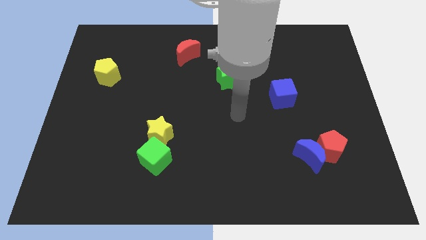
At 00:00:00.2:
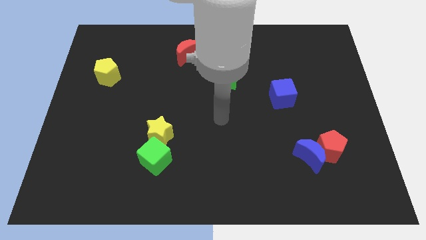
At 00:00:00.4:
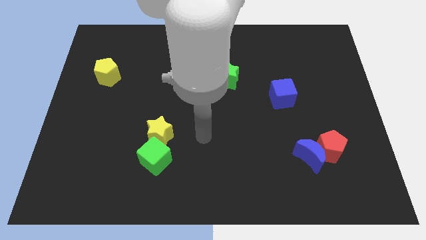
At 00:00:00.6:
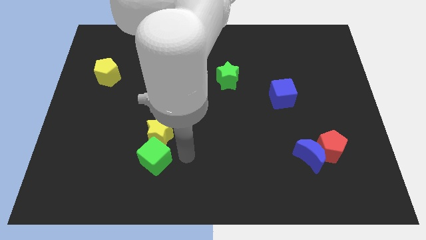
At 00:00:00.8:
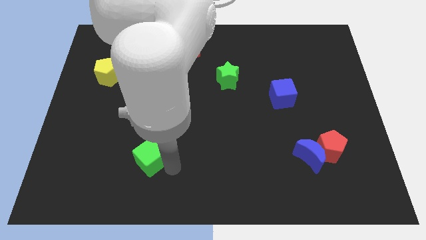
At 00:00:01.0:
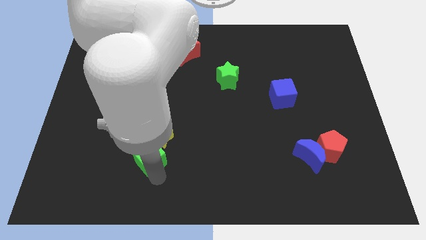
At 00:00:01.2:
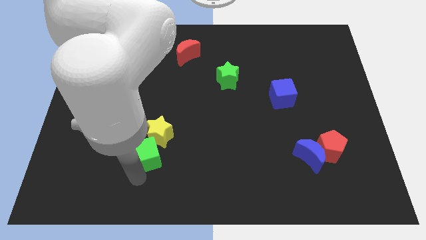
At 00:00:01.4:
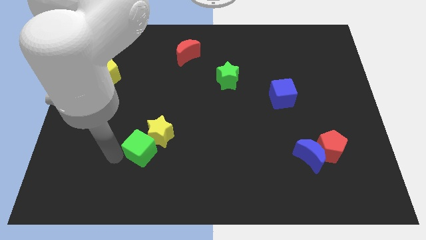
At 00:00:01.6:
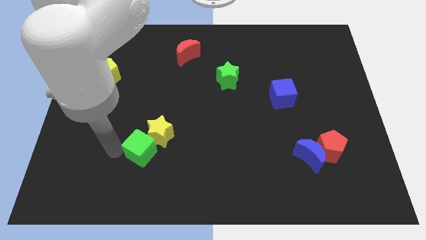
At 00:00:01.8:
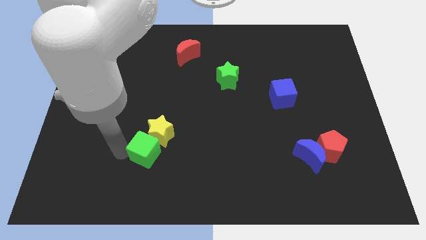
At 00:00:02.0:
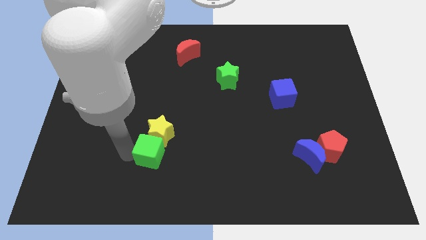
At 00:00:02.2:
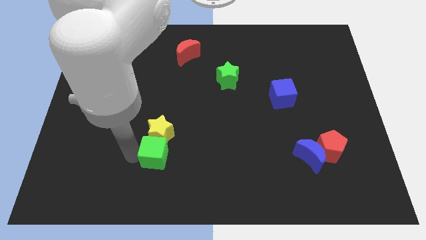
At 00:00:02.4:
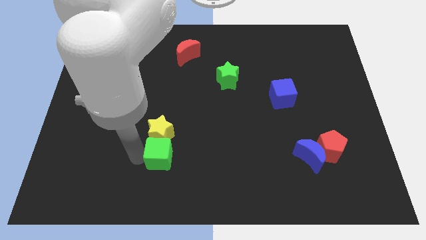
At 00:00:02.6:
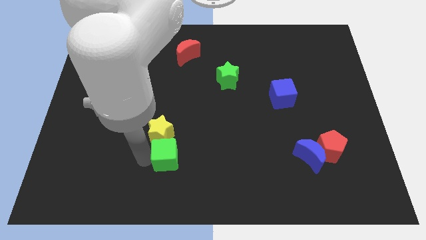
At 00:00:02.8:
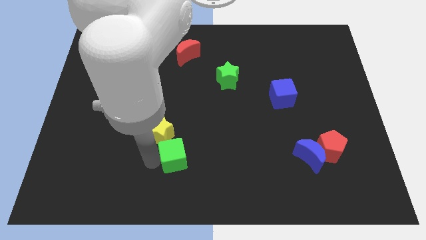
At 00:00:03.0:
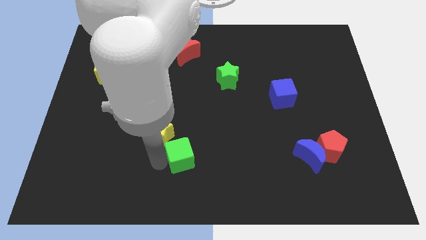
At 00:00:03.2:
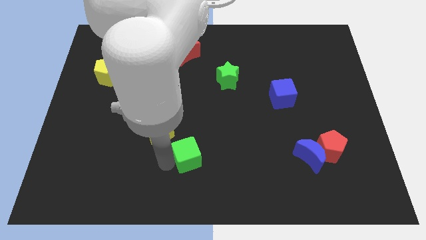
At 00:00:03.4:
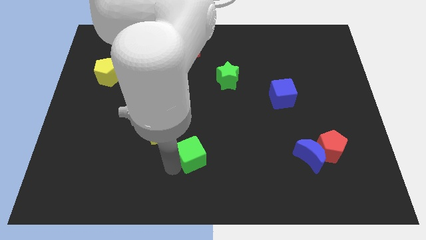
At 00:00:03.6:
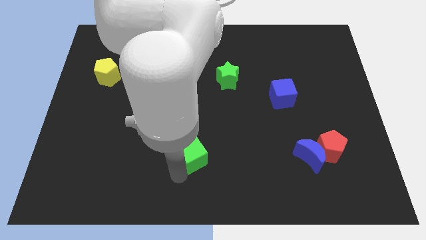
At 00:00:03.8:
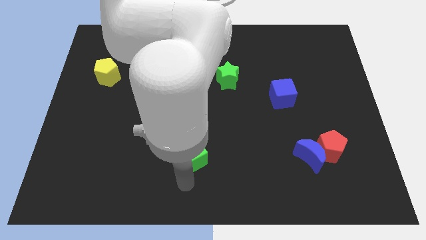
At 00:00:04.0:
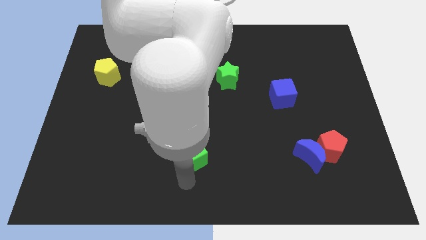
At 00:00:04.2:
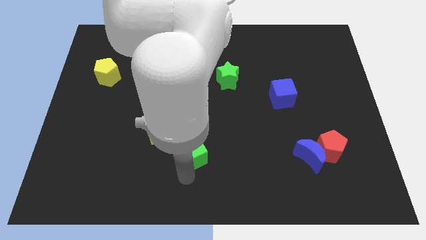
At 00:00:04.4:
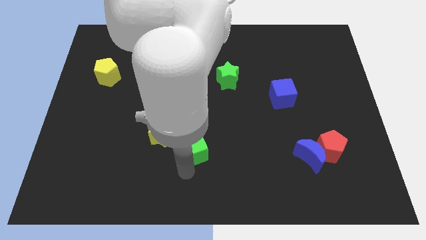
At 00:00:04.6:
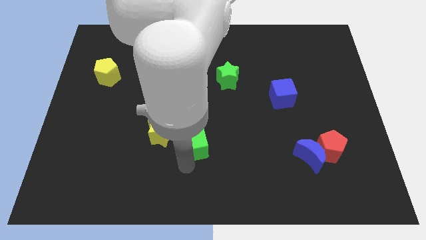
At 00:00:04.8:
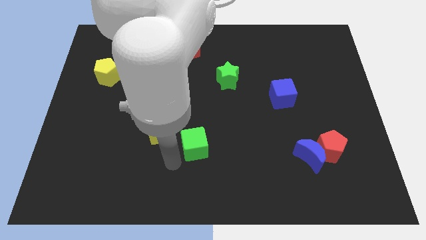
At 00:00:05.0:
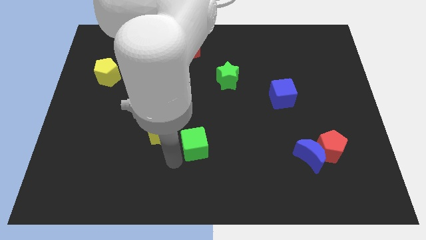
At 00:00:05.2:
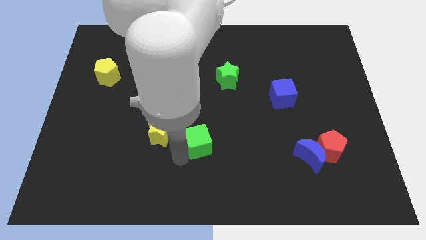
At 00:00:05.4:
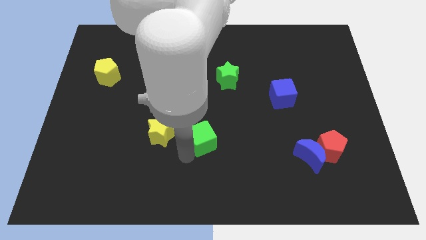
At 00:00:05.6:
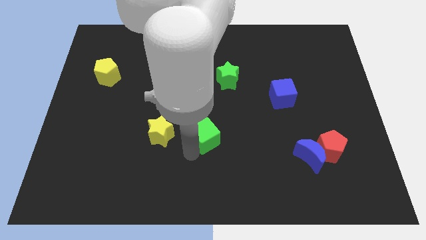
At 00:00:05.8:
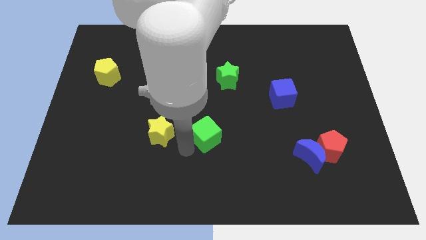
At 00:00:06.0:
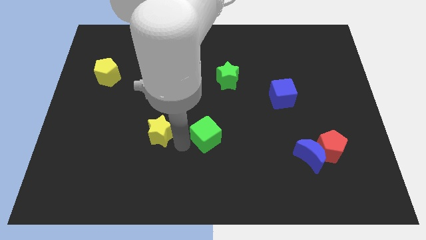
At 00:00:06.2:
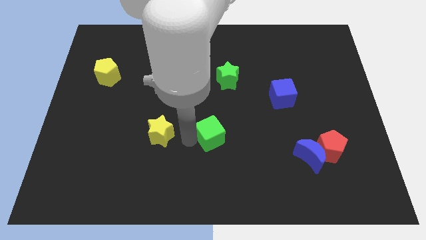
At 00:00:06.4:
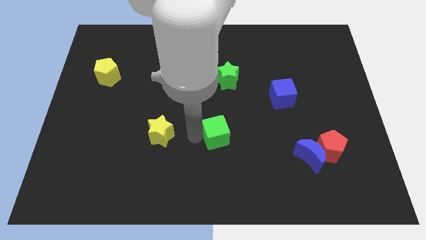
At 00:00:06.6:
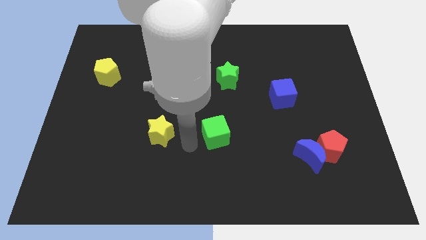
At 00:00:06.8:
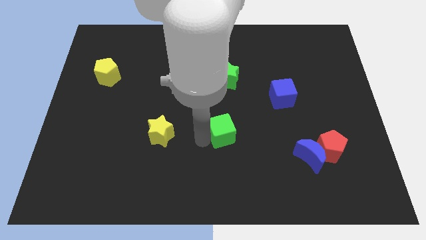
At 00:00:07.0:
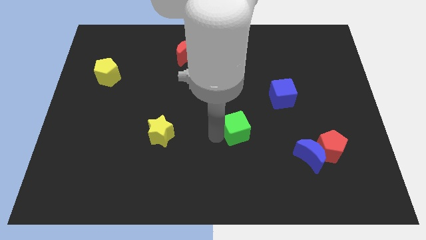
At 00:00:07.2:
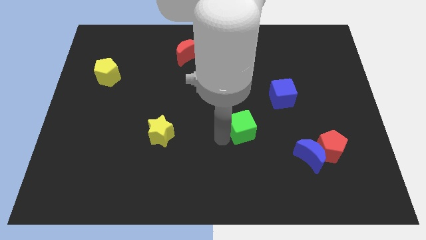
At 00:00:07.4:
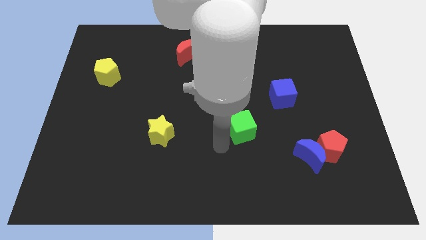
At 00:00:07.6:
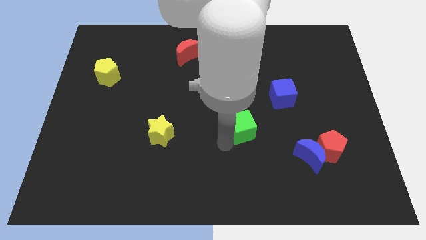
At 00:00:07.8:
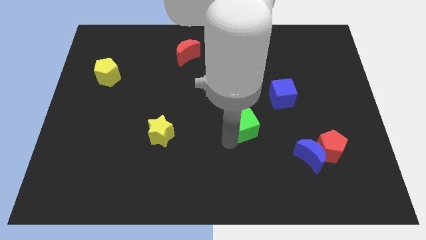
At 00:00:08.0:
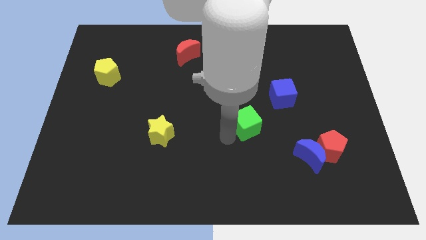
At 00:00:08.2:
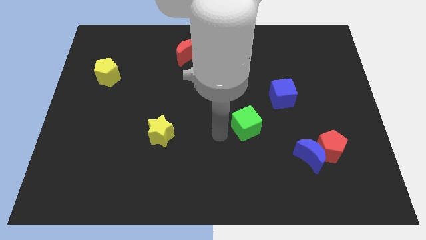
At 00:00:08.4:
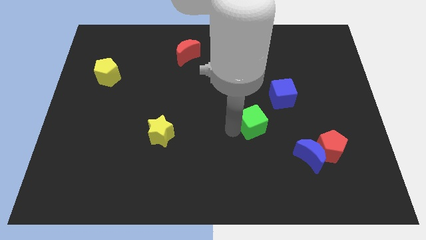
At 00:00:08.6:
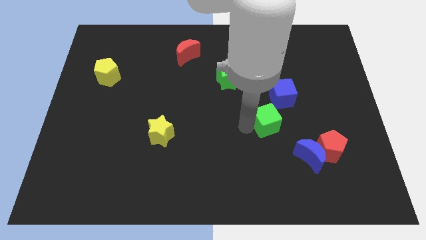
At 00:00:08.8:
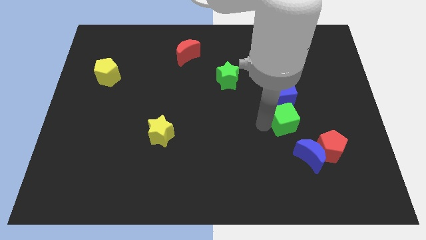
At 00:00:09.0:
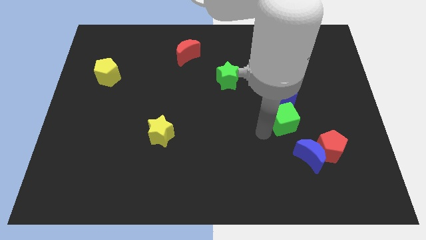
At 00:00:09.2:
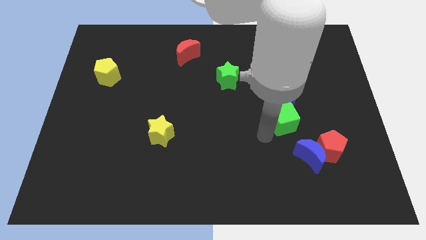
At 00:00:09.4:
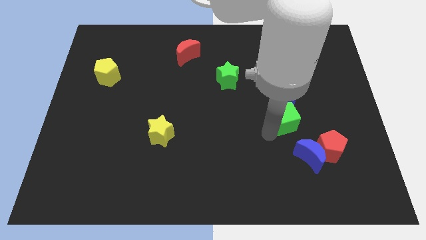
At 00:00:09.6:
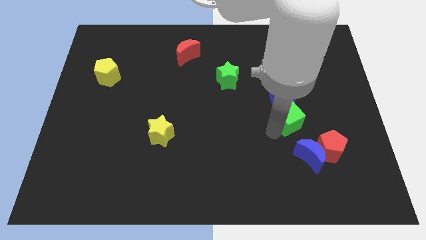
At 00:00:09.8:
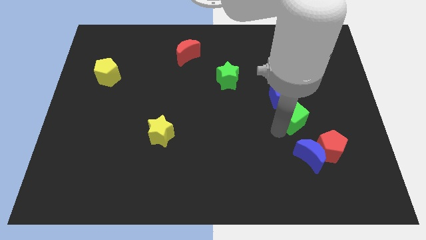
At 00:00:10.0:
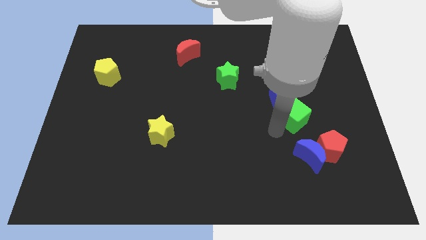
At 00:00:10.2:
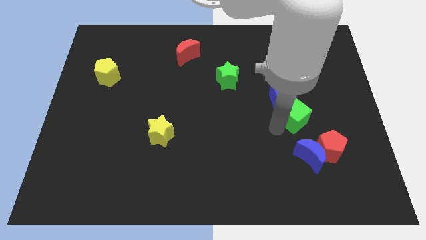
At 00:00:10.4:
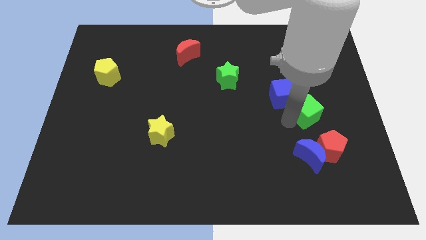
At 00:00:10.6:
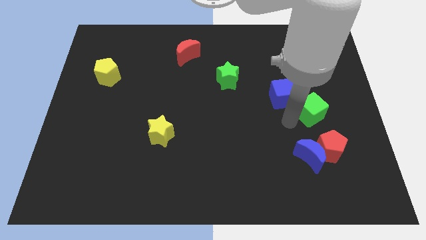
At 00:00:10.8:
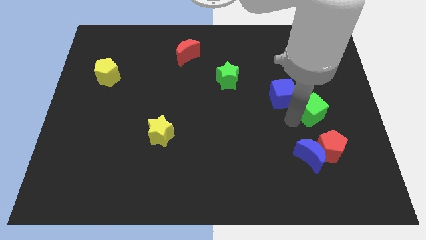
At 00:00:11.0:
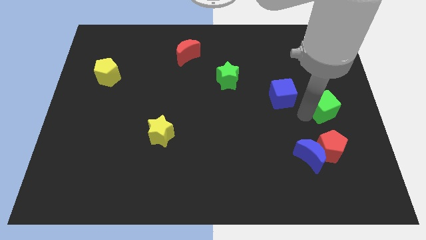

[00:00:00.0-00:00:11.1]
put the green cube to the right side

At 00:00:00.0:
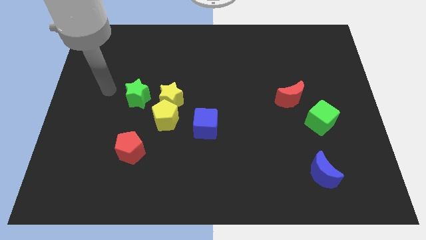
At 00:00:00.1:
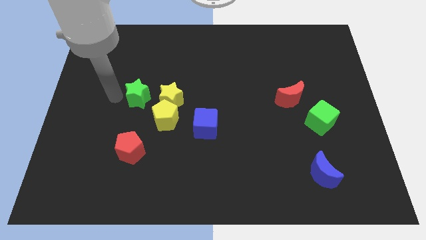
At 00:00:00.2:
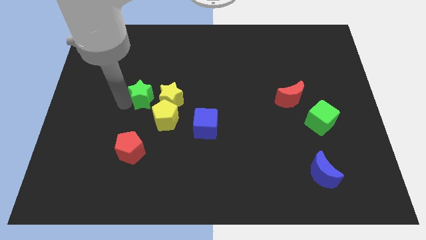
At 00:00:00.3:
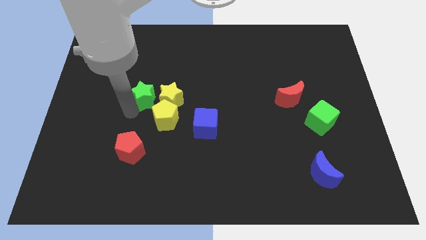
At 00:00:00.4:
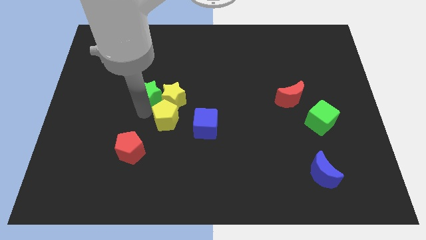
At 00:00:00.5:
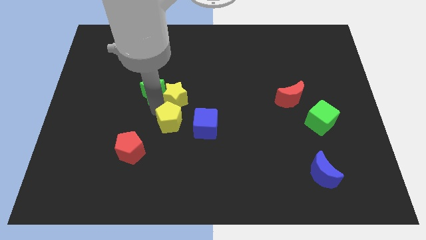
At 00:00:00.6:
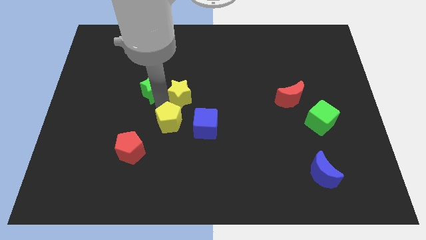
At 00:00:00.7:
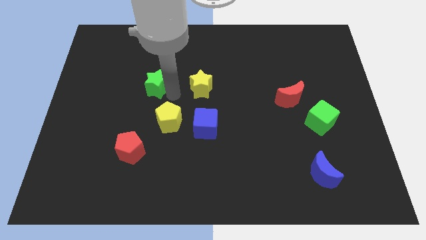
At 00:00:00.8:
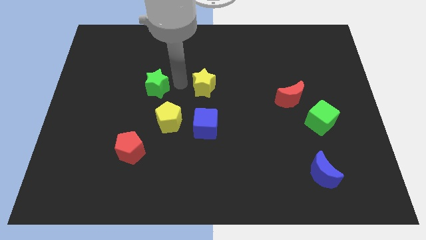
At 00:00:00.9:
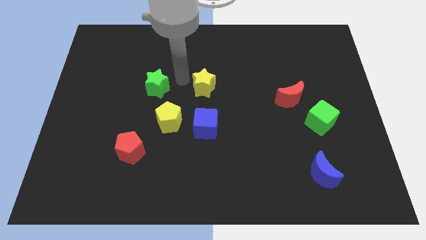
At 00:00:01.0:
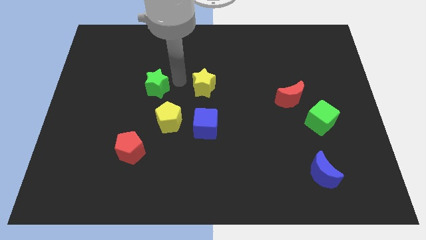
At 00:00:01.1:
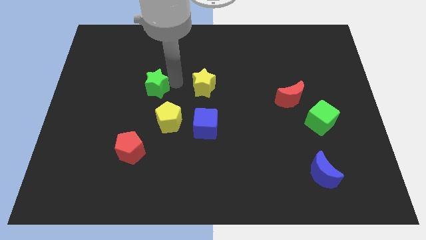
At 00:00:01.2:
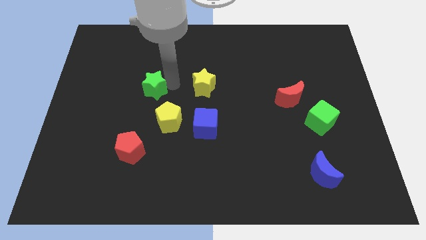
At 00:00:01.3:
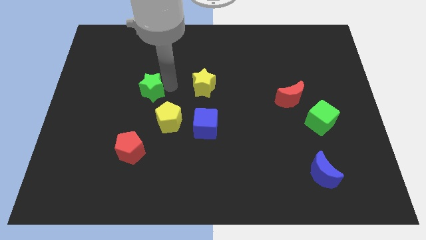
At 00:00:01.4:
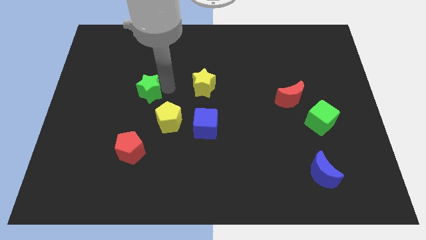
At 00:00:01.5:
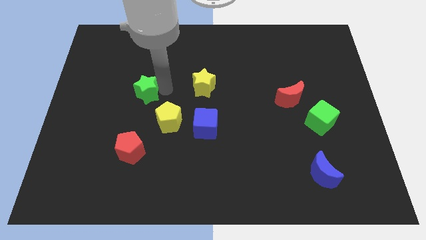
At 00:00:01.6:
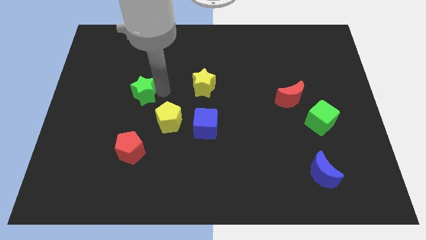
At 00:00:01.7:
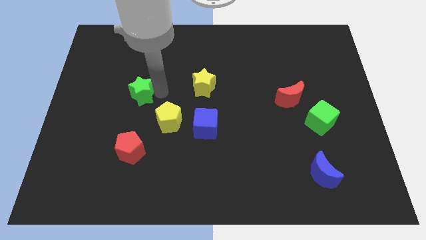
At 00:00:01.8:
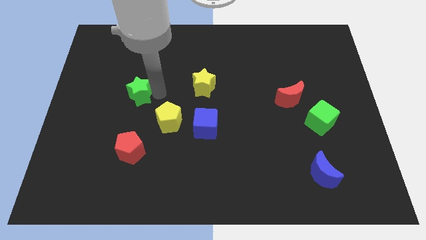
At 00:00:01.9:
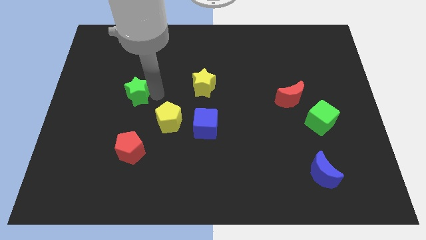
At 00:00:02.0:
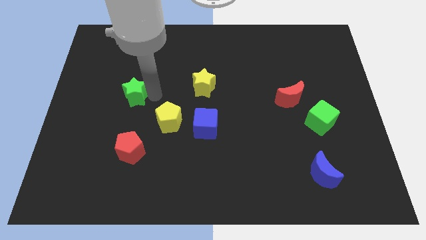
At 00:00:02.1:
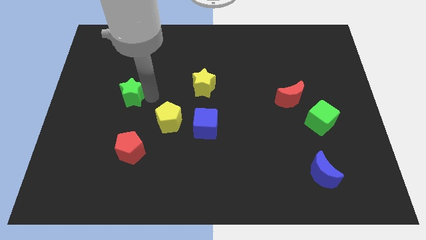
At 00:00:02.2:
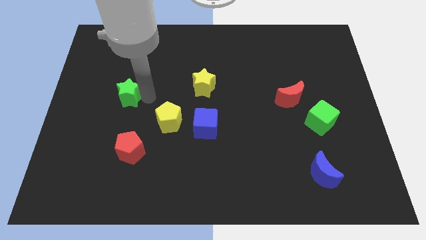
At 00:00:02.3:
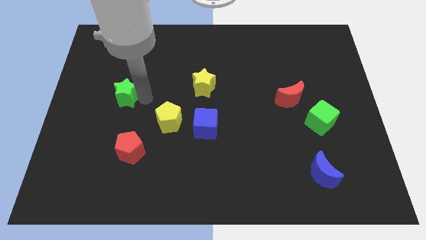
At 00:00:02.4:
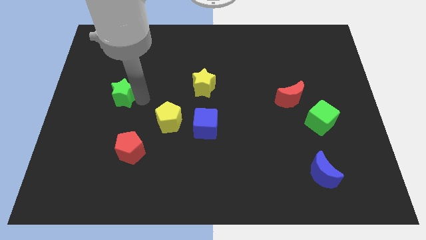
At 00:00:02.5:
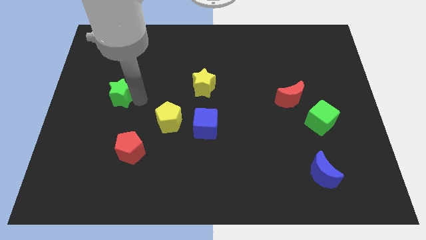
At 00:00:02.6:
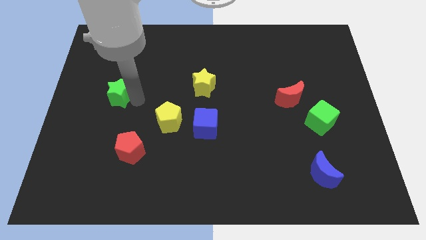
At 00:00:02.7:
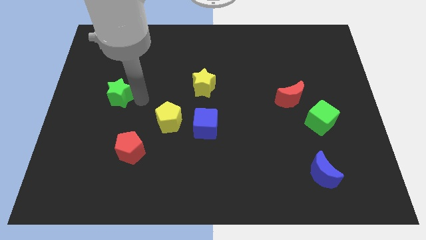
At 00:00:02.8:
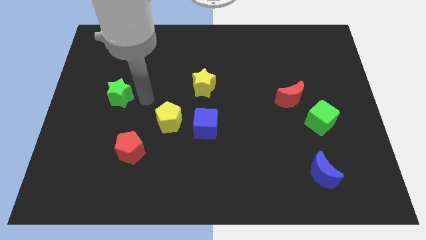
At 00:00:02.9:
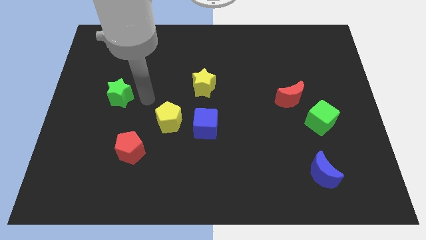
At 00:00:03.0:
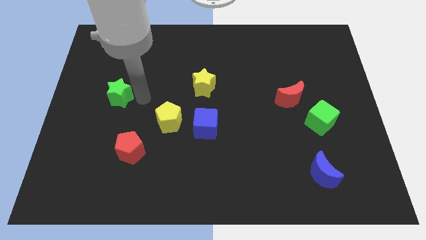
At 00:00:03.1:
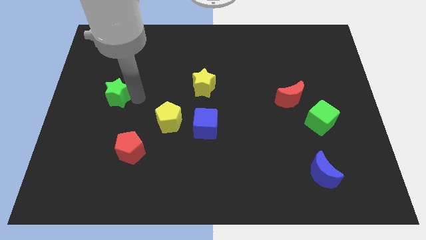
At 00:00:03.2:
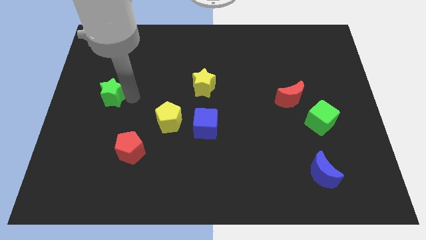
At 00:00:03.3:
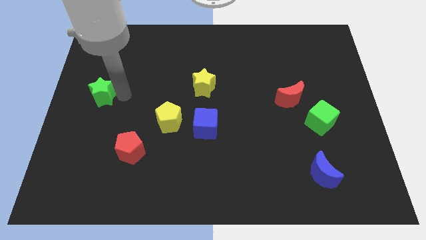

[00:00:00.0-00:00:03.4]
move the green star to the center left
